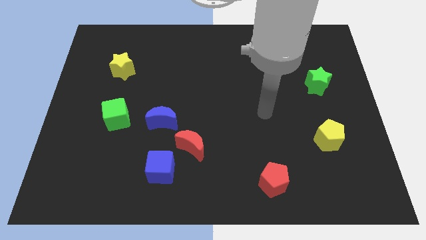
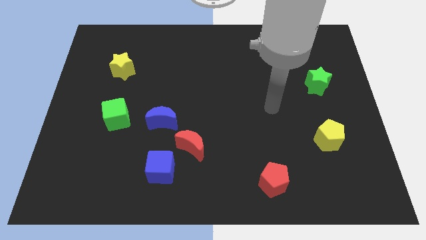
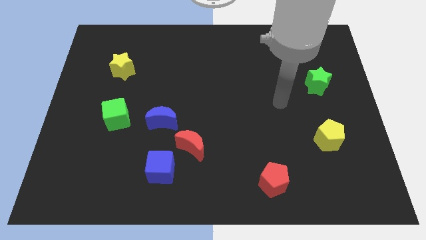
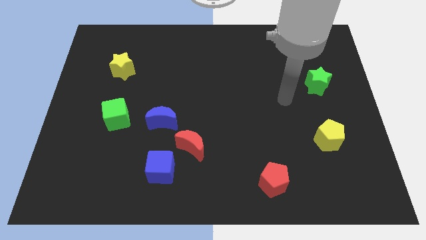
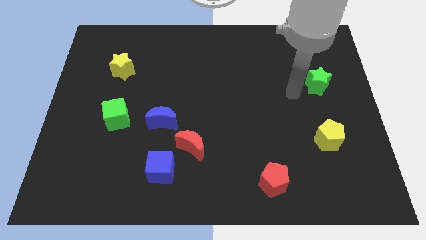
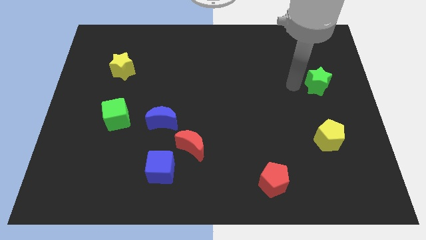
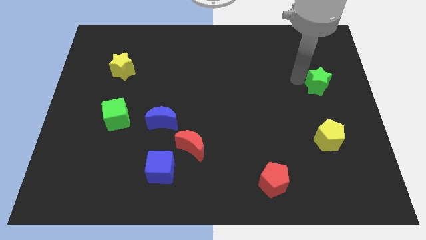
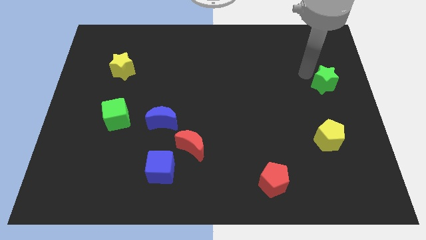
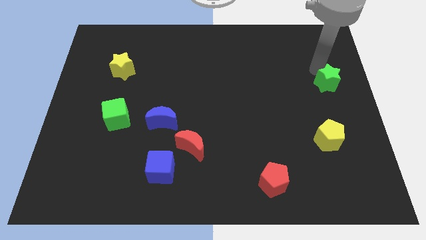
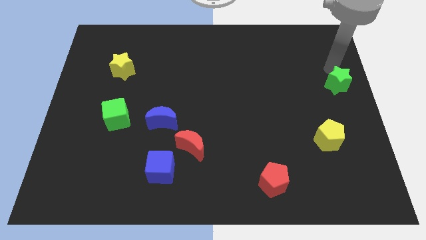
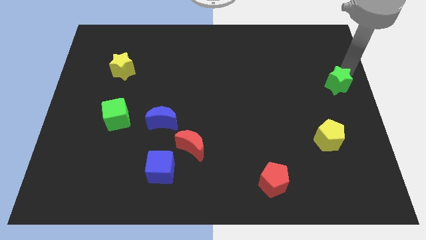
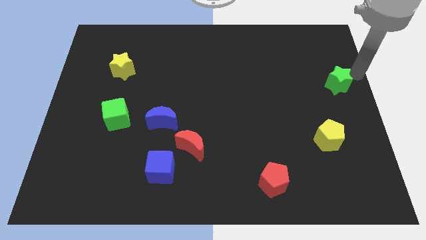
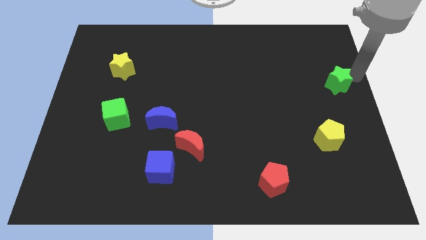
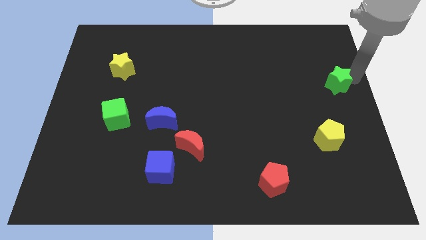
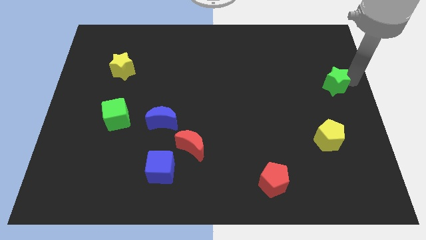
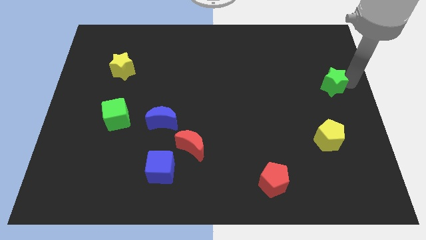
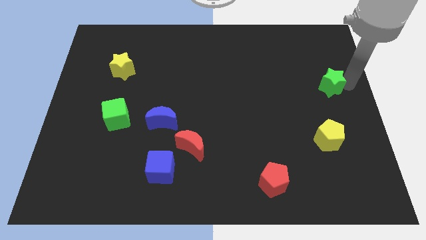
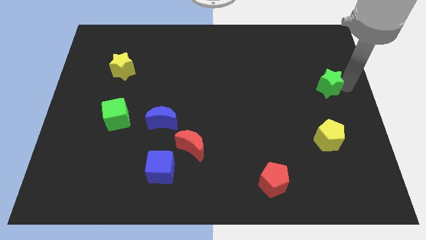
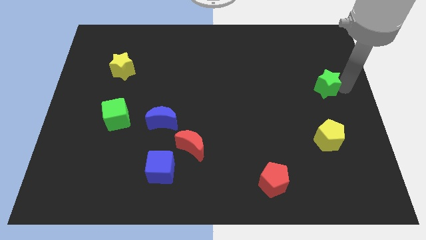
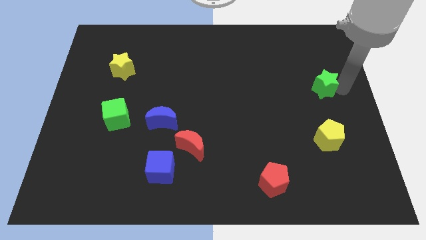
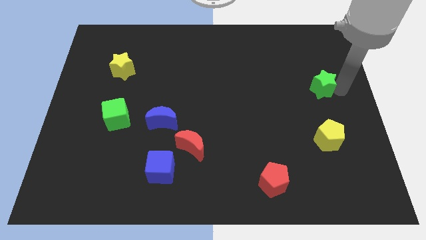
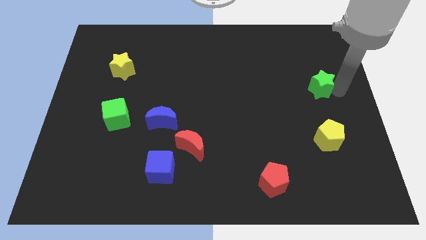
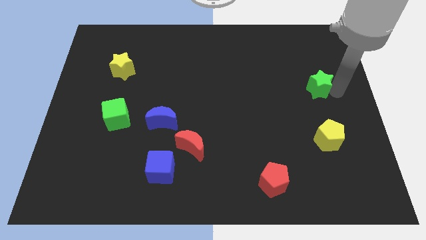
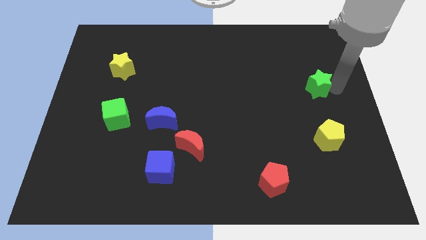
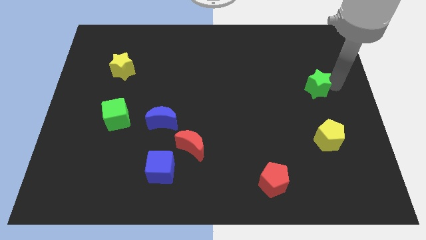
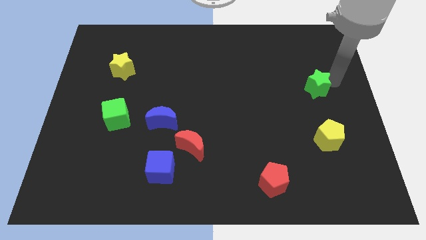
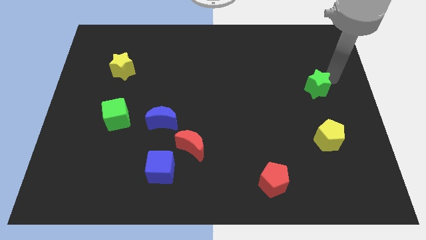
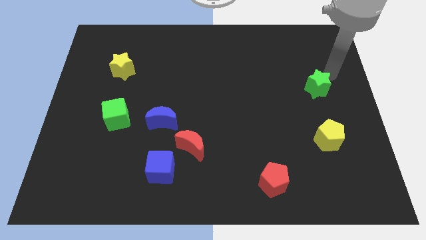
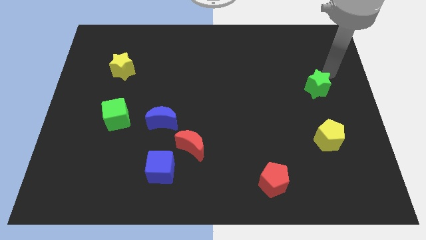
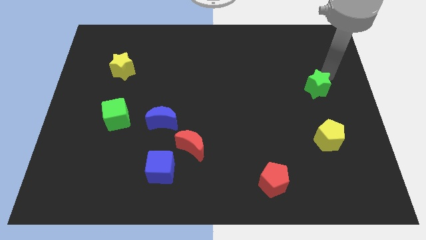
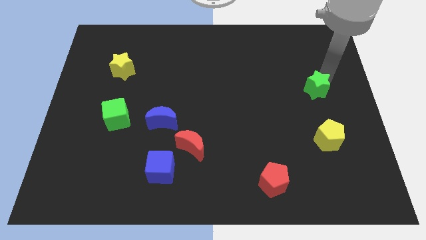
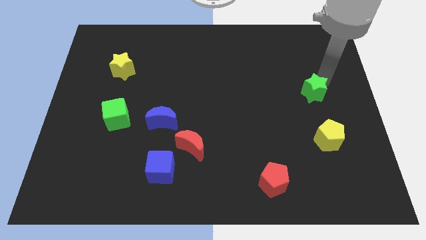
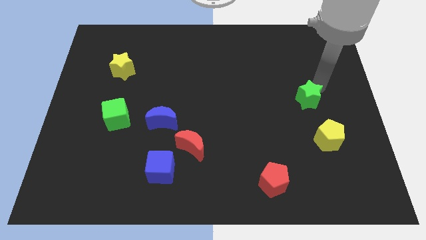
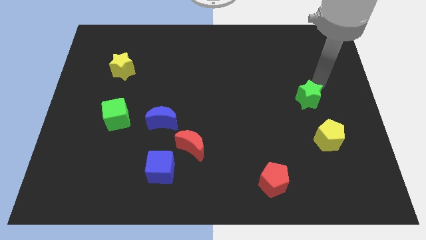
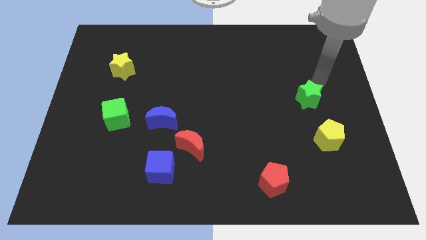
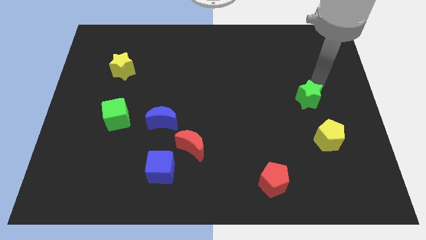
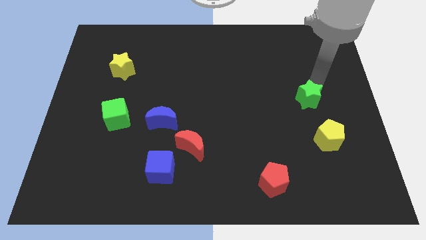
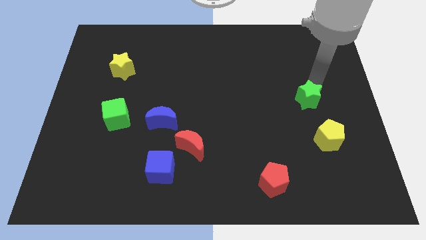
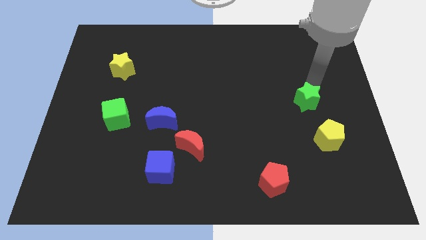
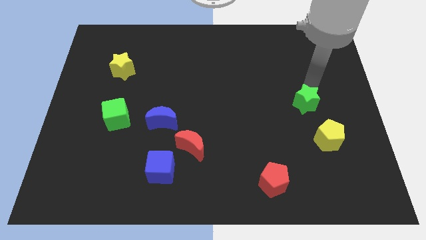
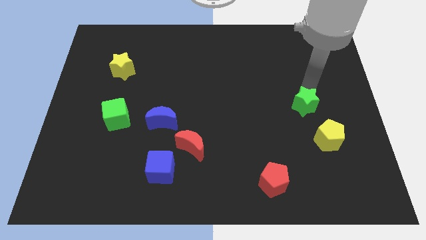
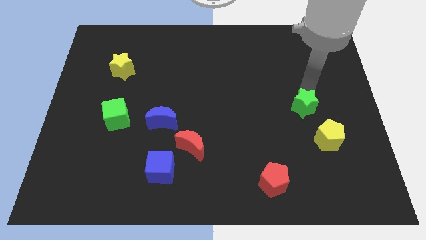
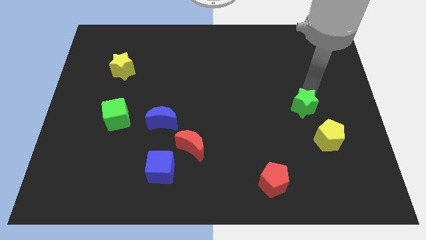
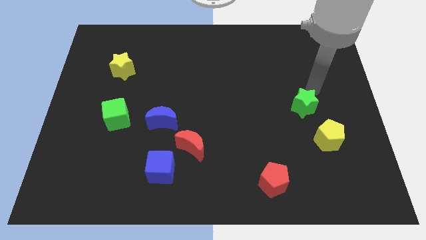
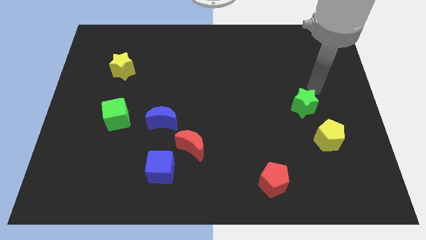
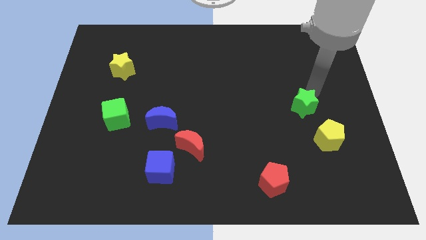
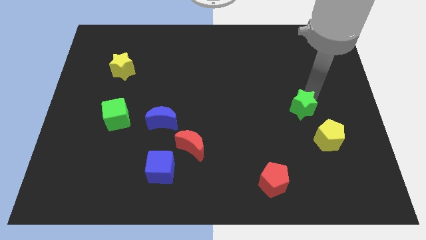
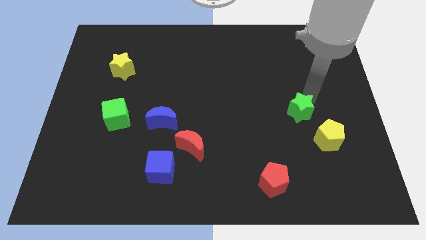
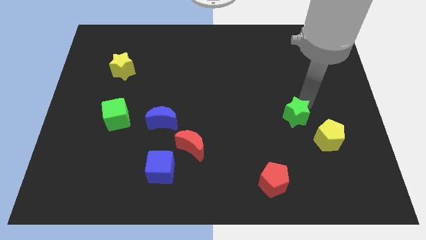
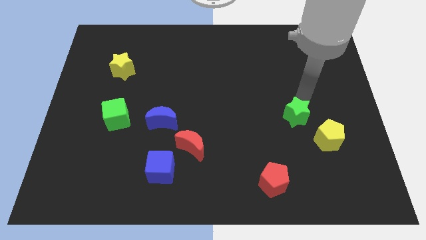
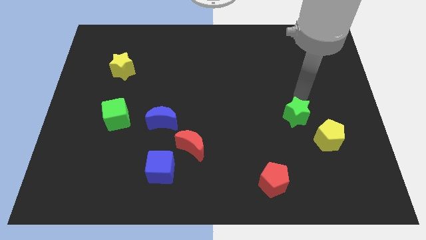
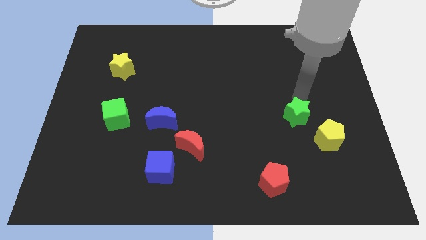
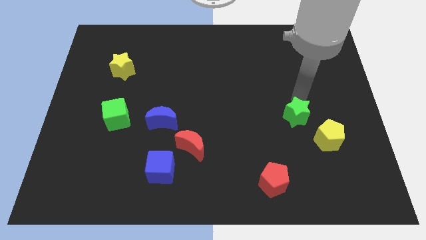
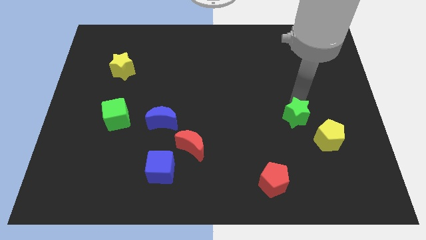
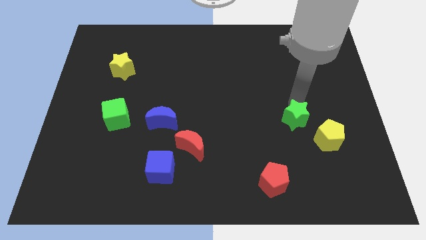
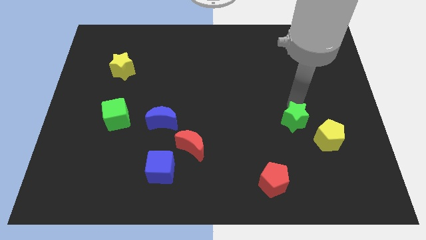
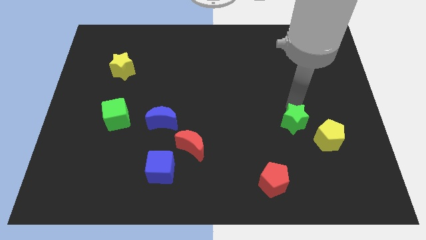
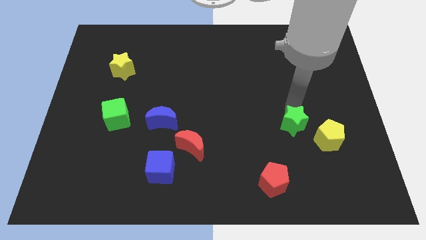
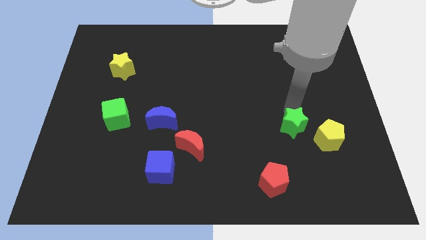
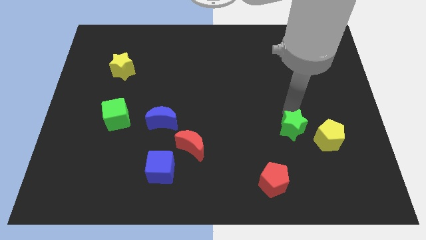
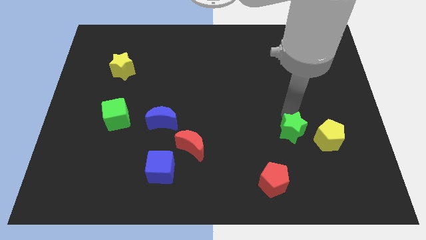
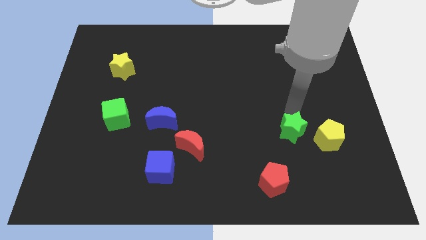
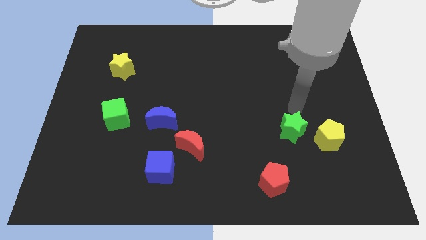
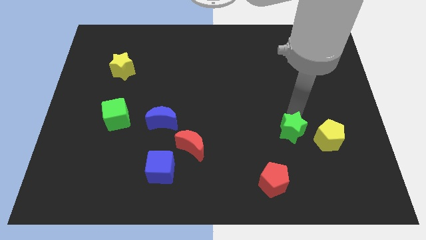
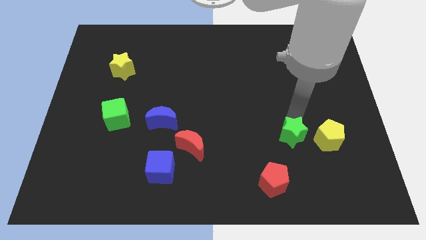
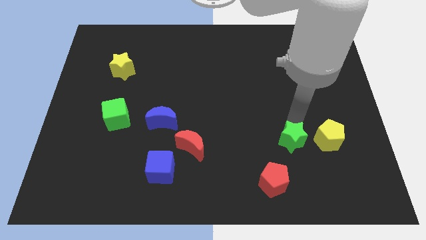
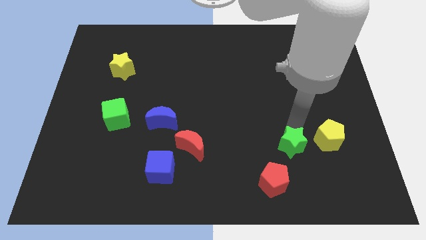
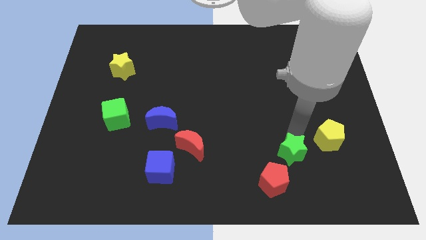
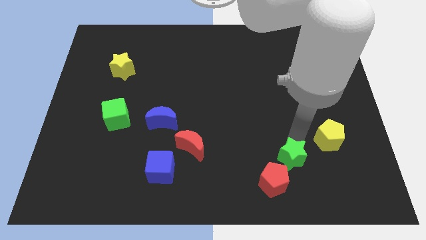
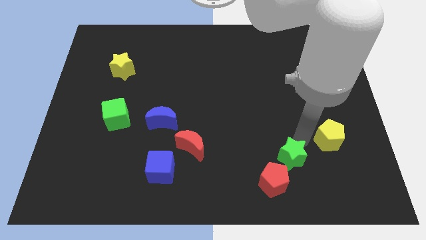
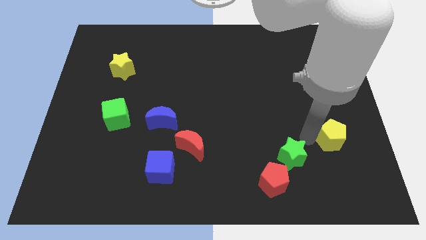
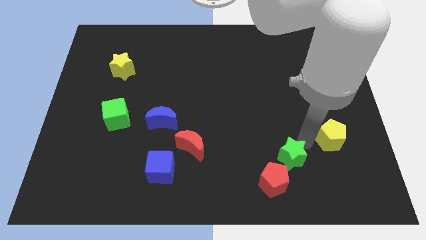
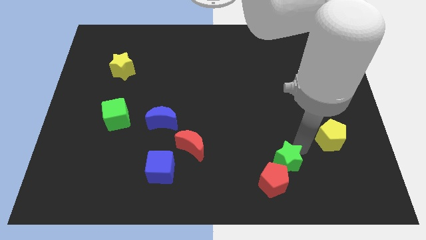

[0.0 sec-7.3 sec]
push the green star close to the red pentagon
